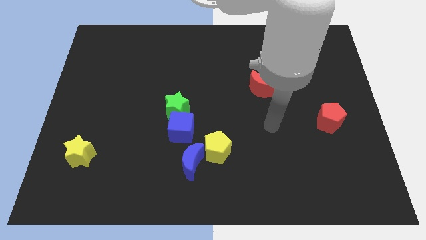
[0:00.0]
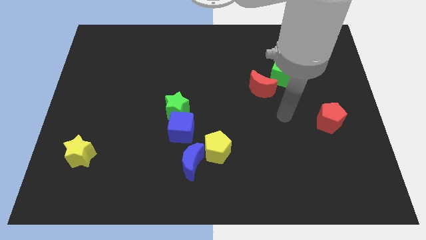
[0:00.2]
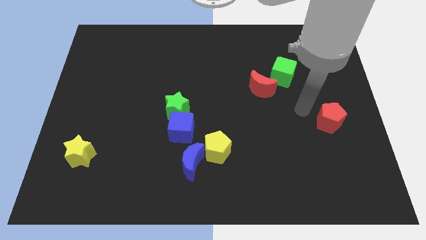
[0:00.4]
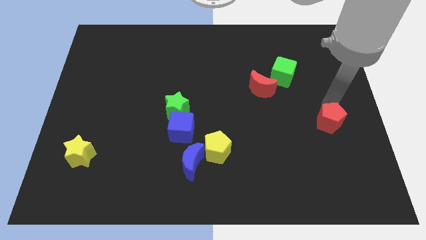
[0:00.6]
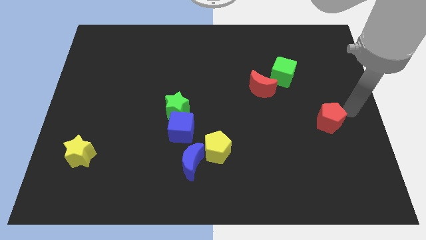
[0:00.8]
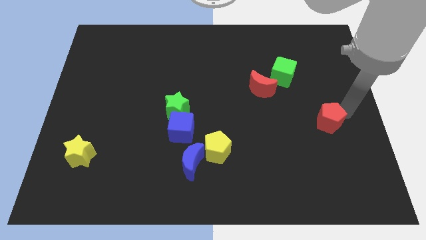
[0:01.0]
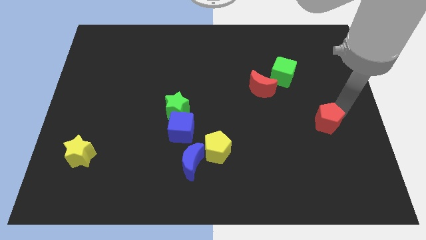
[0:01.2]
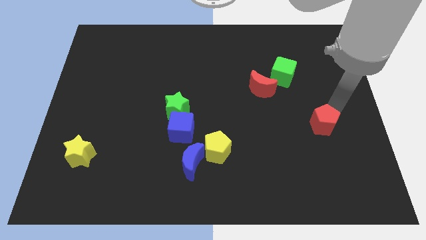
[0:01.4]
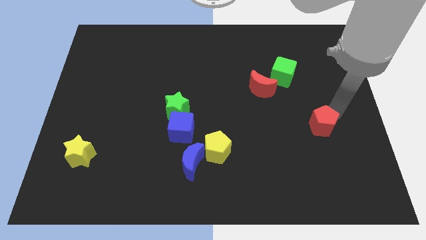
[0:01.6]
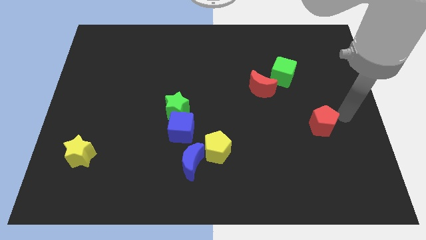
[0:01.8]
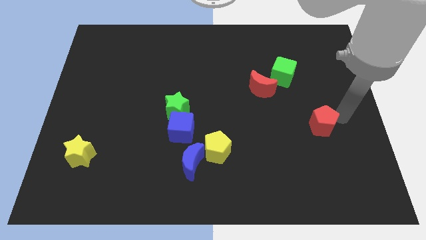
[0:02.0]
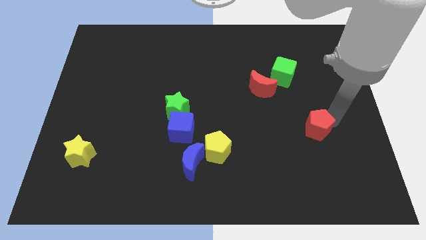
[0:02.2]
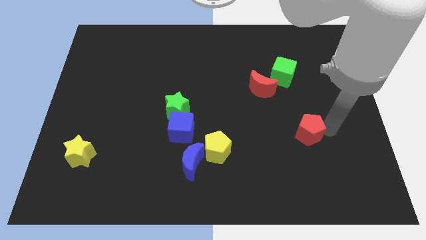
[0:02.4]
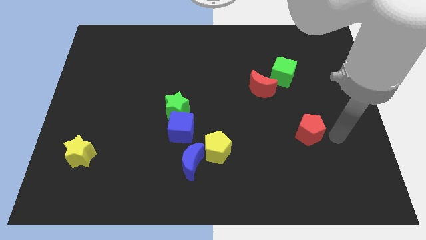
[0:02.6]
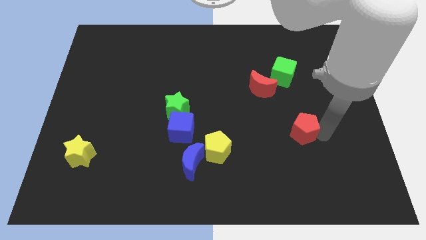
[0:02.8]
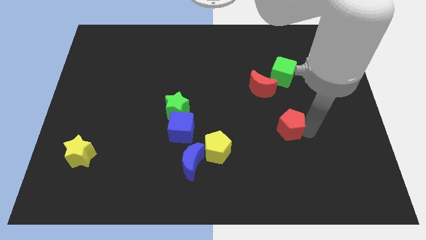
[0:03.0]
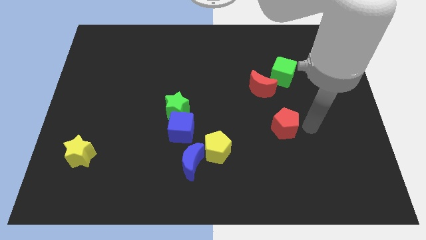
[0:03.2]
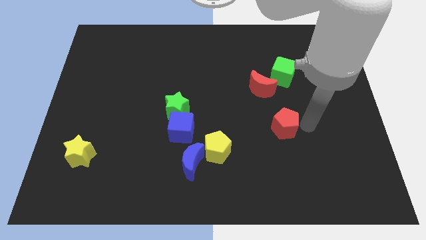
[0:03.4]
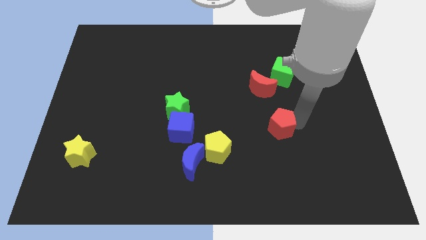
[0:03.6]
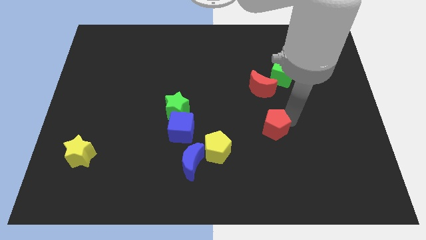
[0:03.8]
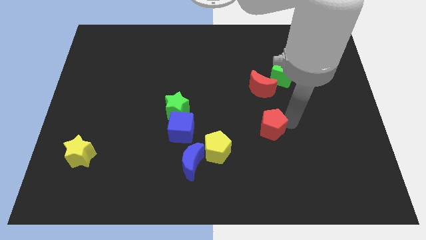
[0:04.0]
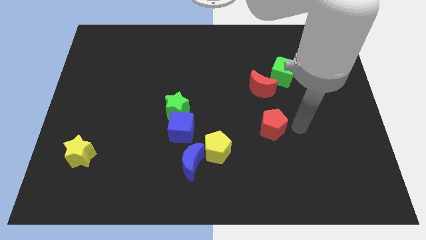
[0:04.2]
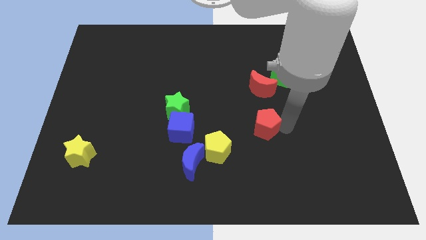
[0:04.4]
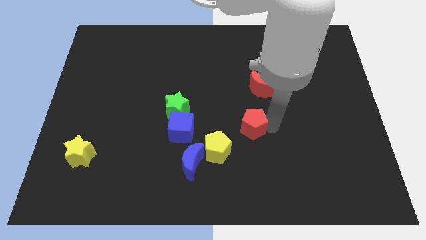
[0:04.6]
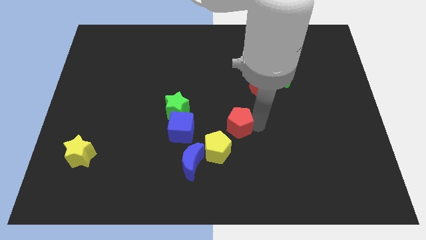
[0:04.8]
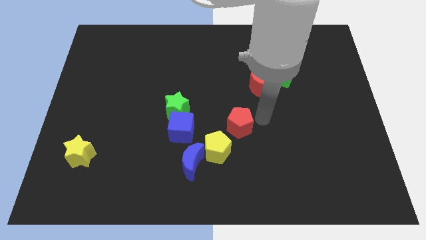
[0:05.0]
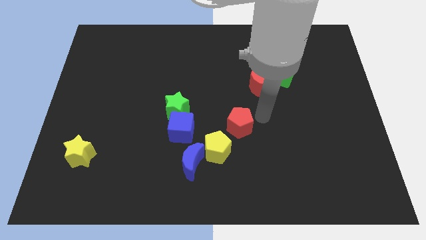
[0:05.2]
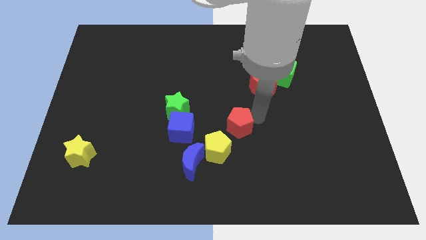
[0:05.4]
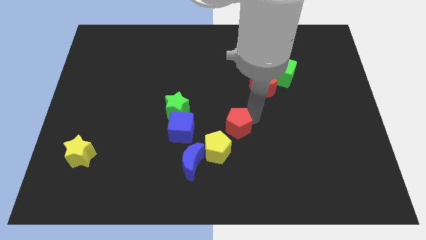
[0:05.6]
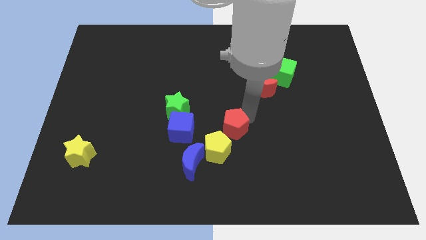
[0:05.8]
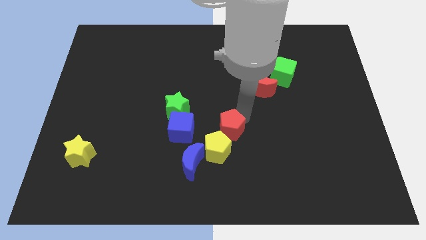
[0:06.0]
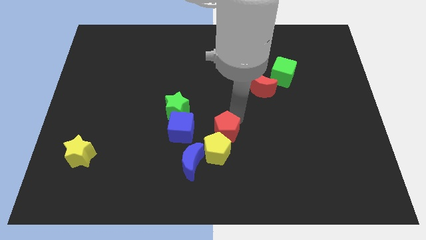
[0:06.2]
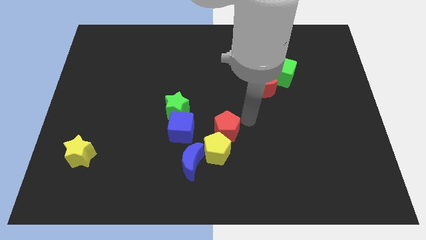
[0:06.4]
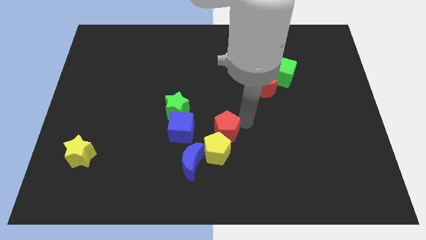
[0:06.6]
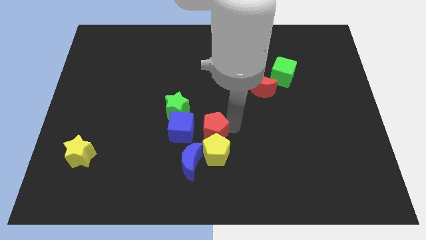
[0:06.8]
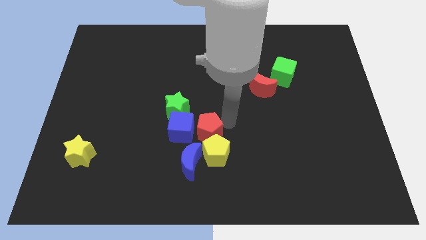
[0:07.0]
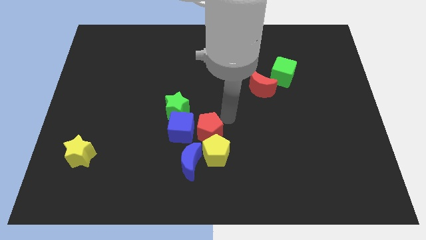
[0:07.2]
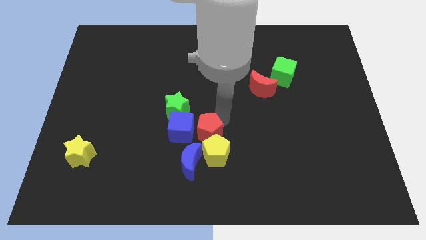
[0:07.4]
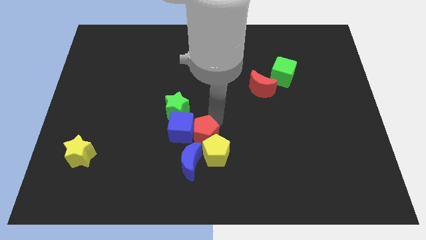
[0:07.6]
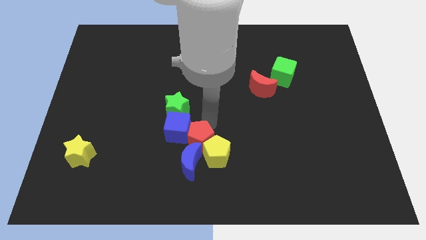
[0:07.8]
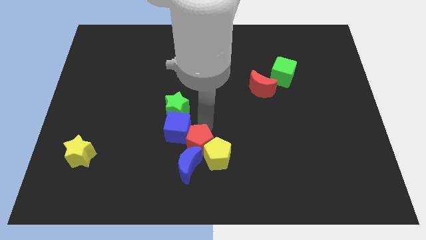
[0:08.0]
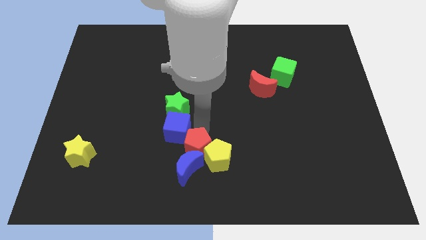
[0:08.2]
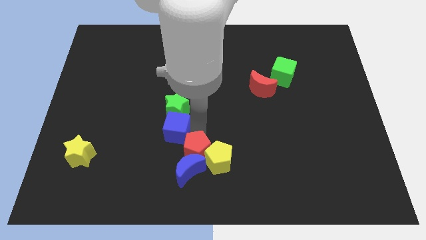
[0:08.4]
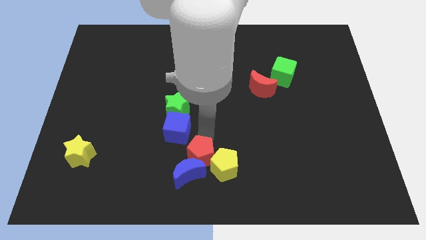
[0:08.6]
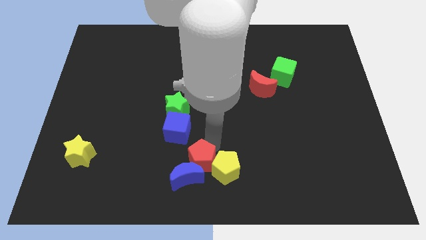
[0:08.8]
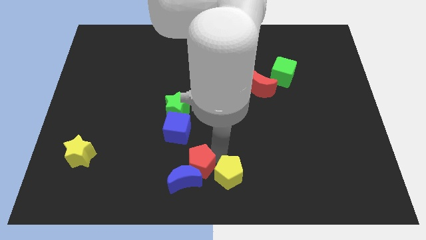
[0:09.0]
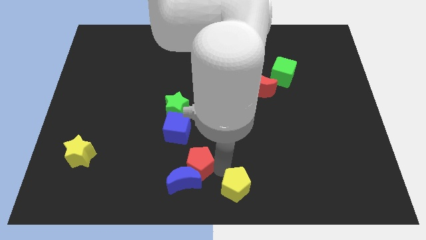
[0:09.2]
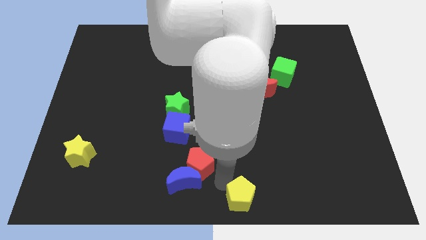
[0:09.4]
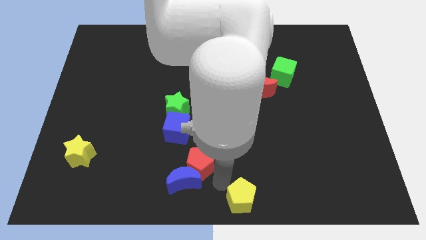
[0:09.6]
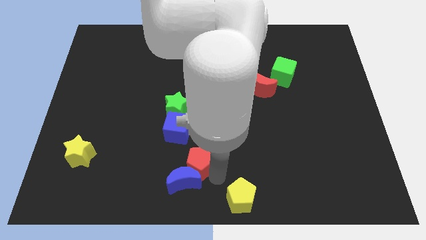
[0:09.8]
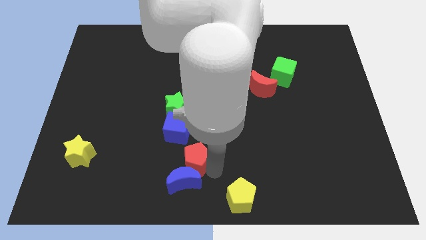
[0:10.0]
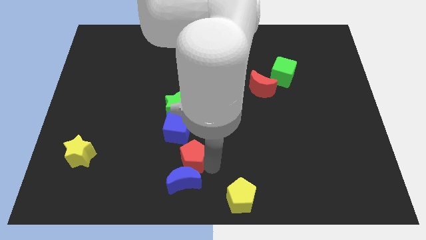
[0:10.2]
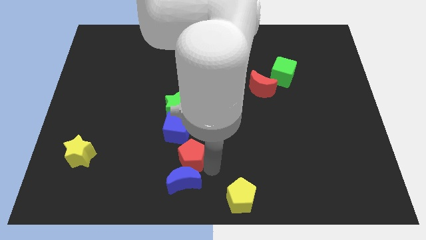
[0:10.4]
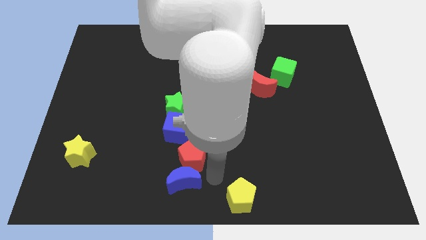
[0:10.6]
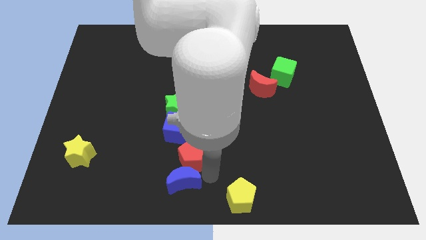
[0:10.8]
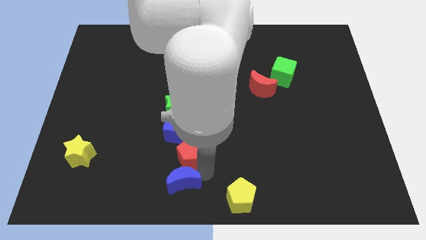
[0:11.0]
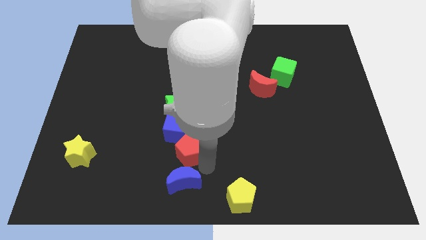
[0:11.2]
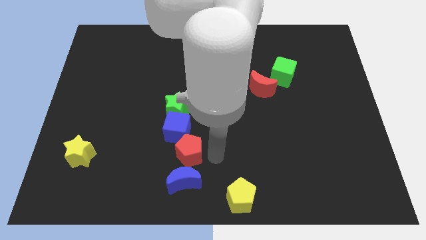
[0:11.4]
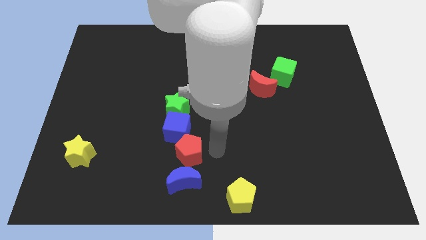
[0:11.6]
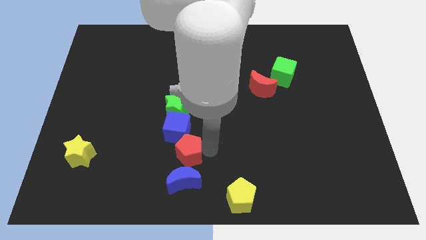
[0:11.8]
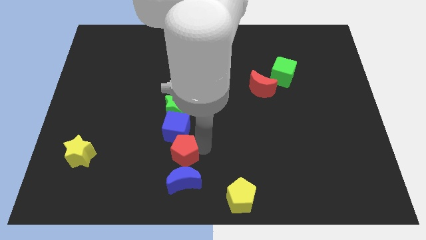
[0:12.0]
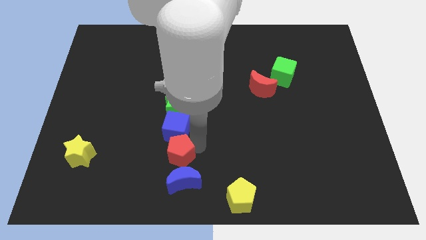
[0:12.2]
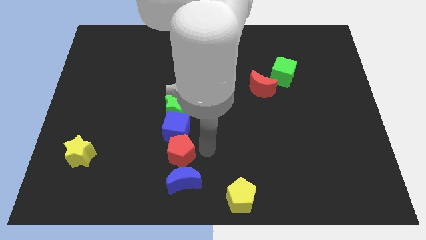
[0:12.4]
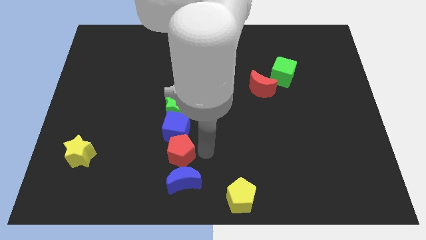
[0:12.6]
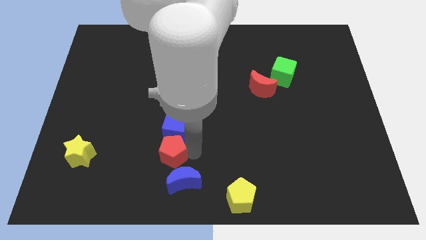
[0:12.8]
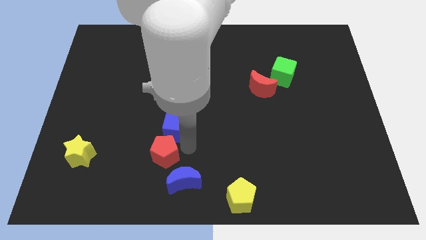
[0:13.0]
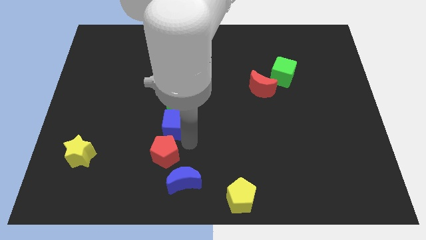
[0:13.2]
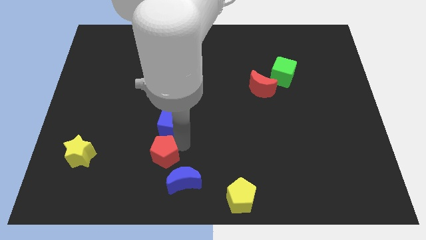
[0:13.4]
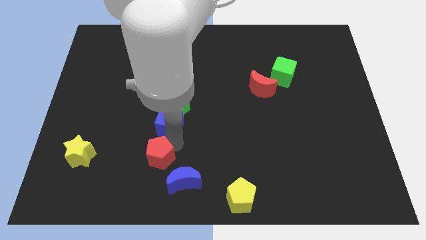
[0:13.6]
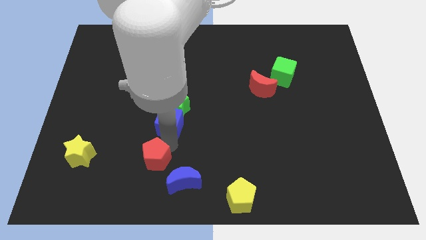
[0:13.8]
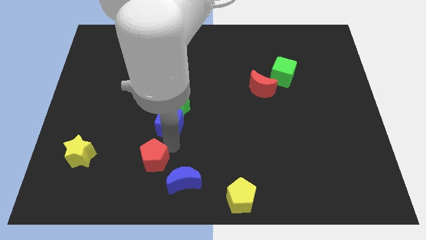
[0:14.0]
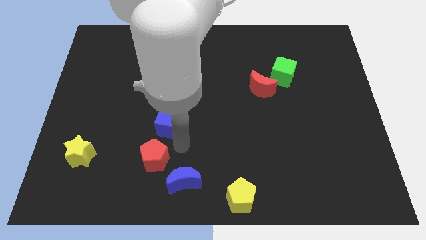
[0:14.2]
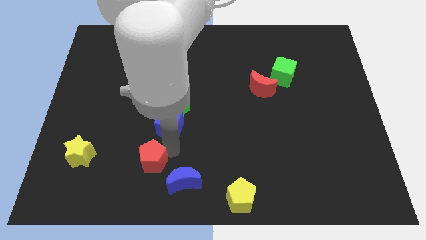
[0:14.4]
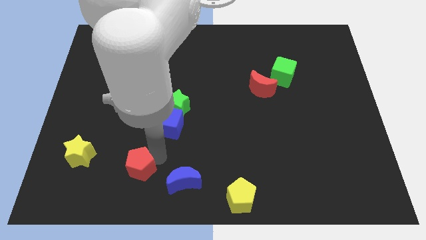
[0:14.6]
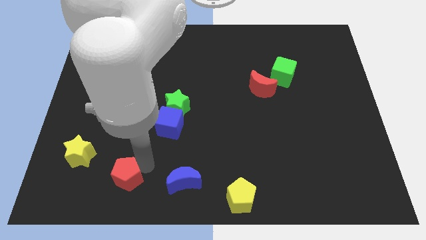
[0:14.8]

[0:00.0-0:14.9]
put the red pentagon diagonally down and to the right of the yellow star

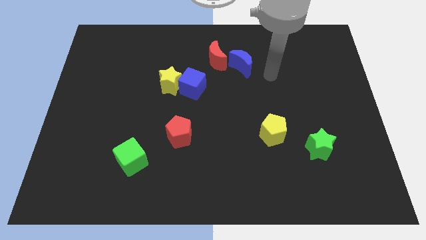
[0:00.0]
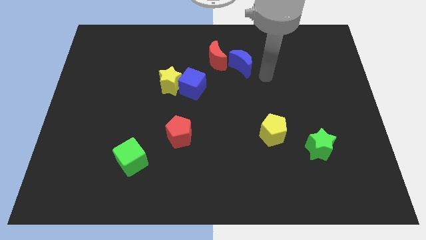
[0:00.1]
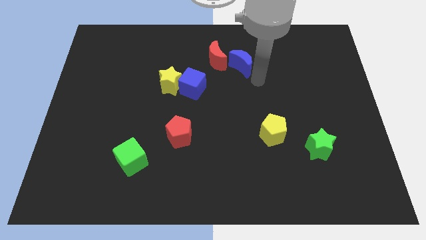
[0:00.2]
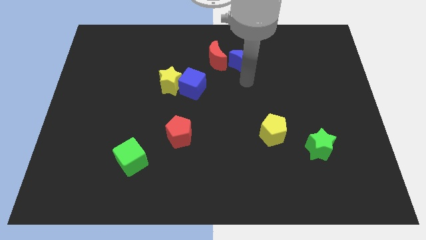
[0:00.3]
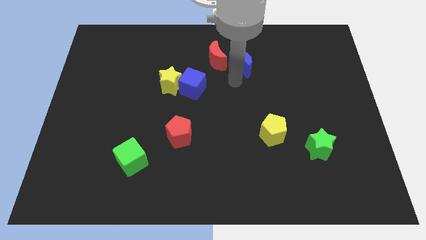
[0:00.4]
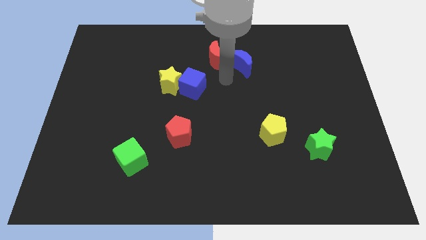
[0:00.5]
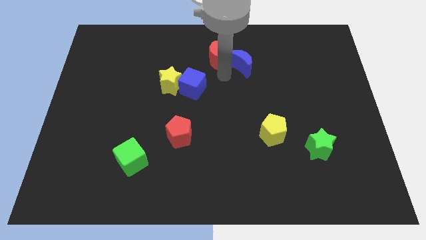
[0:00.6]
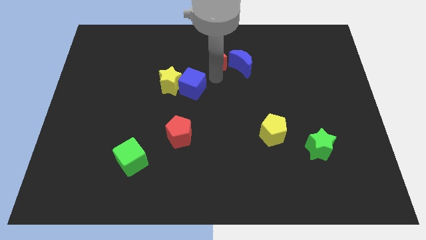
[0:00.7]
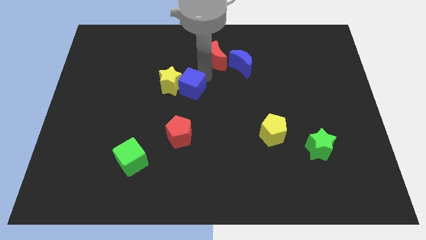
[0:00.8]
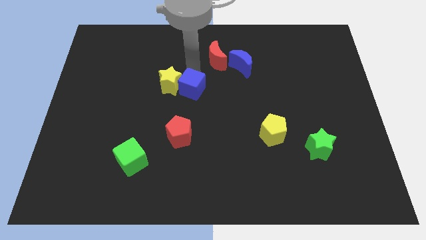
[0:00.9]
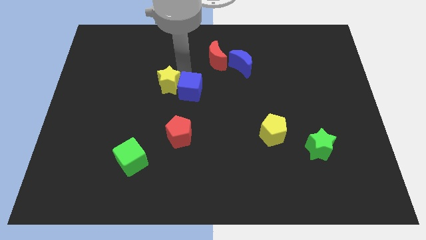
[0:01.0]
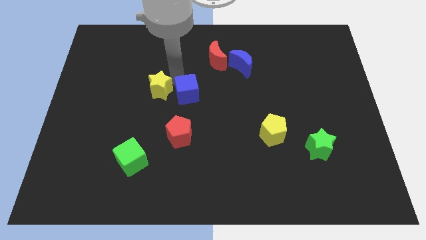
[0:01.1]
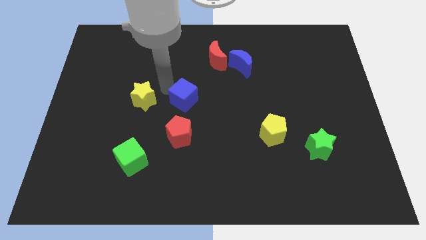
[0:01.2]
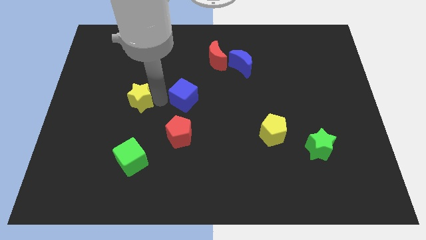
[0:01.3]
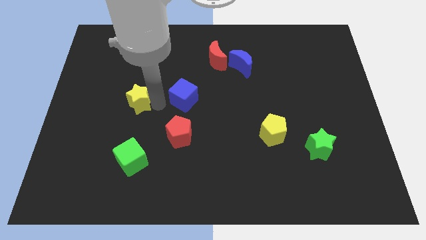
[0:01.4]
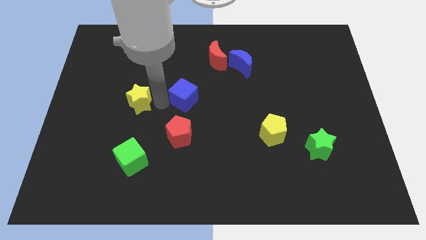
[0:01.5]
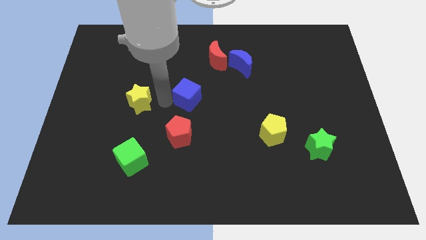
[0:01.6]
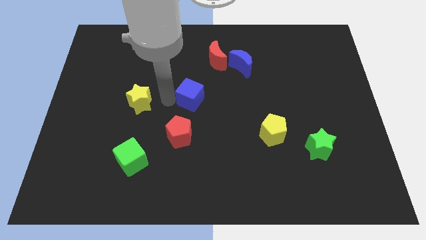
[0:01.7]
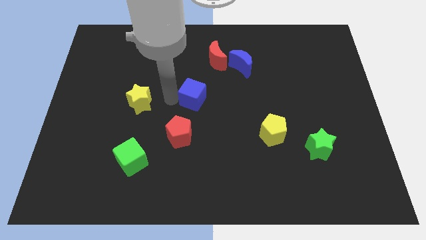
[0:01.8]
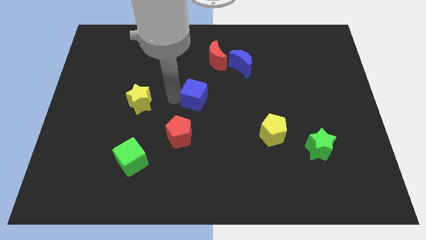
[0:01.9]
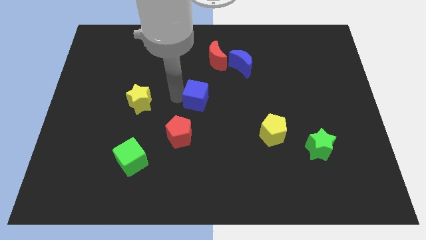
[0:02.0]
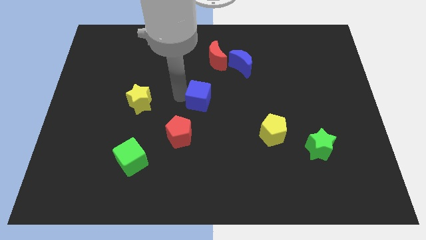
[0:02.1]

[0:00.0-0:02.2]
push the blue cube below the red moon
